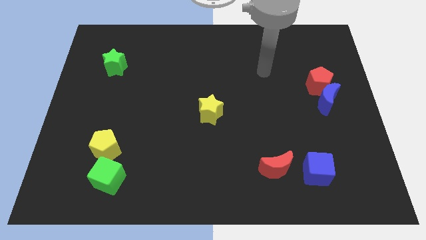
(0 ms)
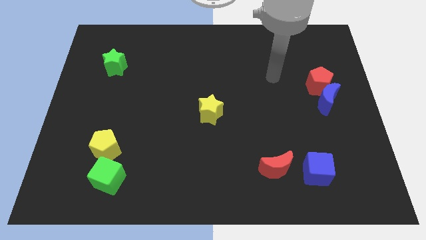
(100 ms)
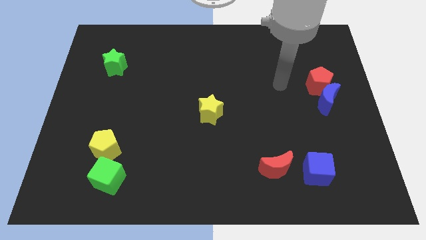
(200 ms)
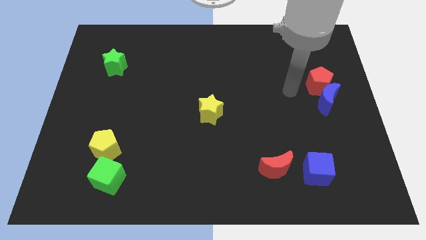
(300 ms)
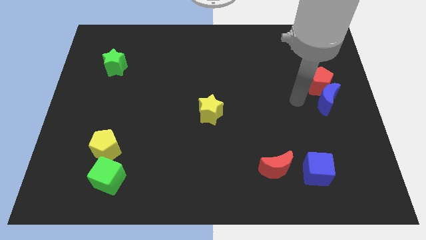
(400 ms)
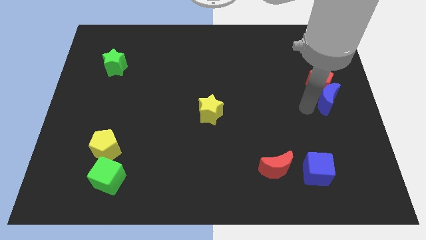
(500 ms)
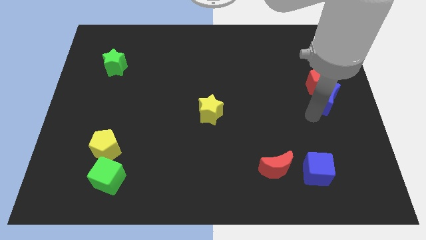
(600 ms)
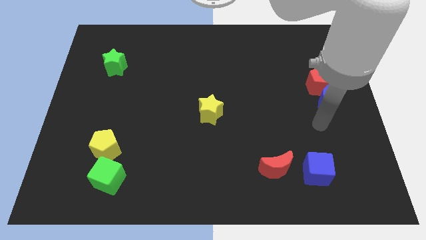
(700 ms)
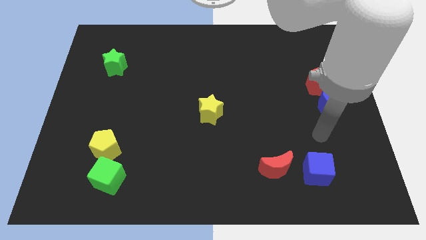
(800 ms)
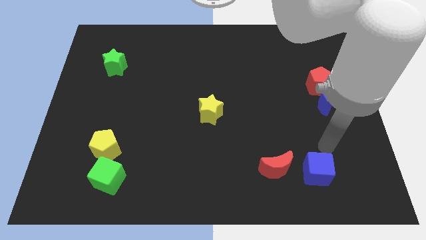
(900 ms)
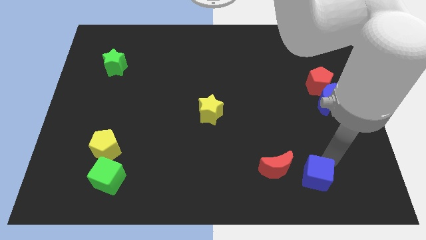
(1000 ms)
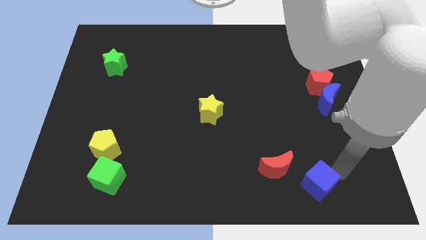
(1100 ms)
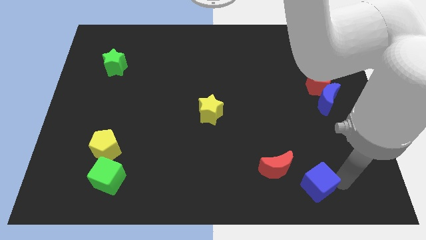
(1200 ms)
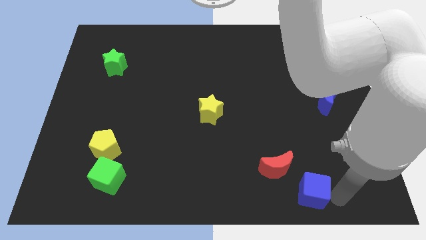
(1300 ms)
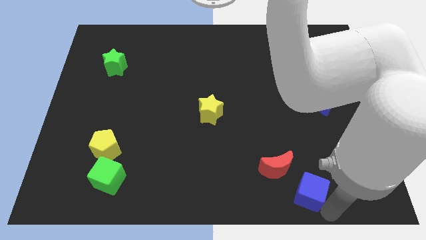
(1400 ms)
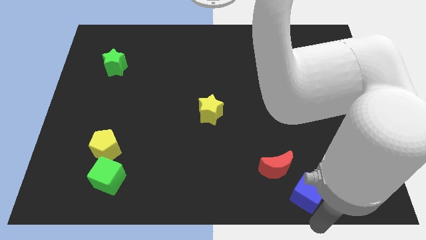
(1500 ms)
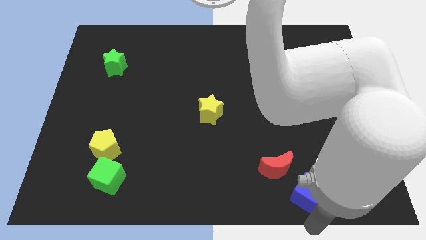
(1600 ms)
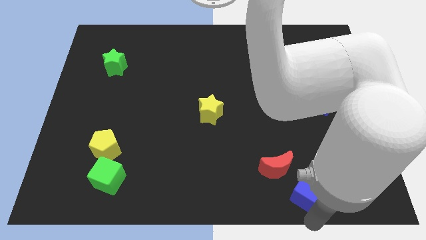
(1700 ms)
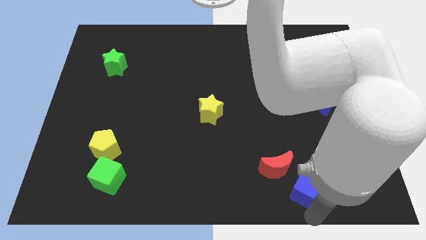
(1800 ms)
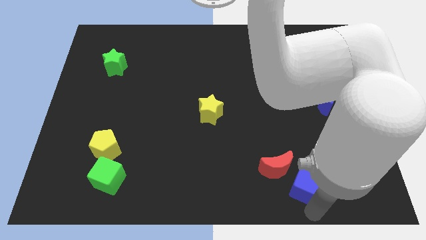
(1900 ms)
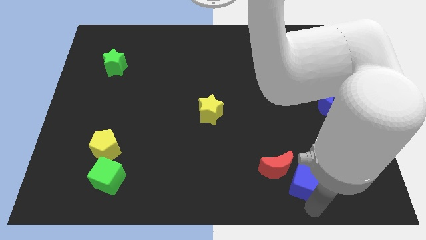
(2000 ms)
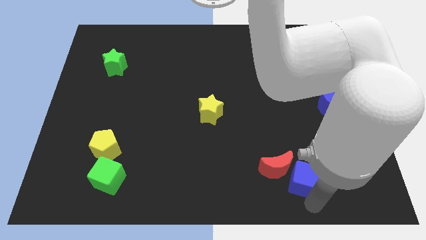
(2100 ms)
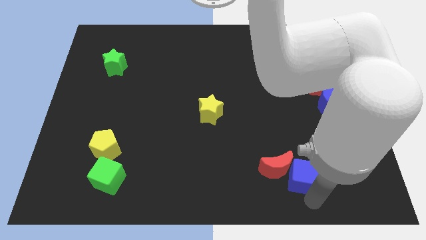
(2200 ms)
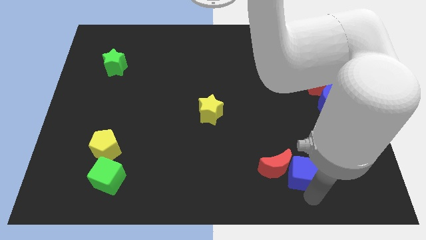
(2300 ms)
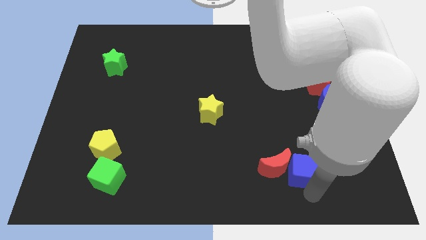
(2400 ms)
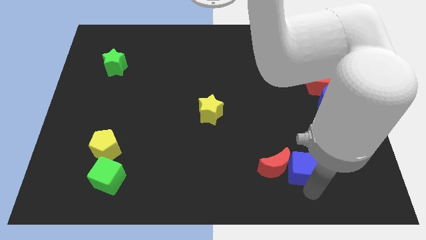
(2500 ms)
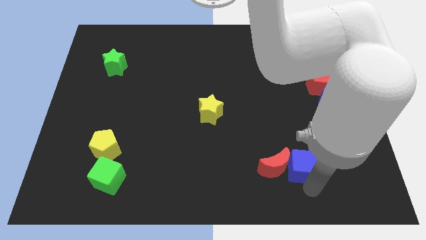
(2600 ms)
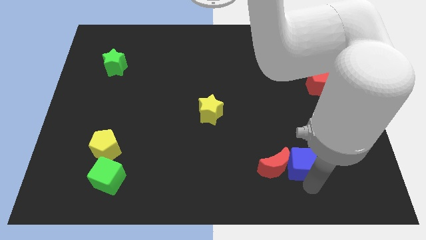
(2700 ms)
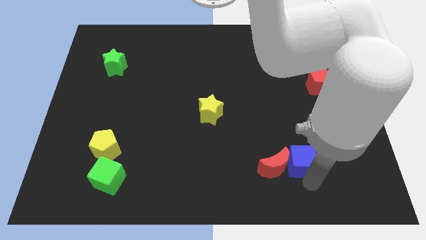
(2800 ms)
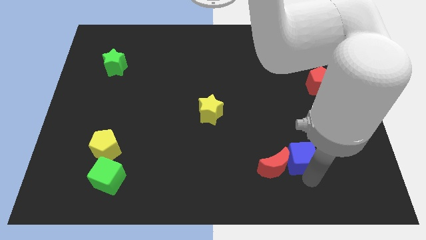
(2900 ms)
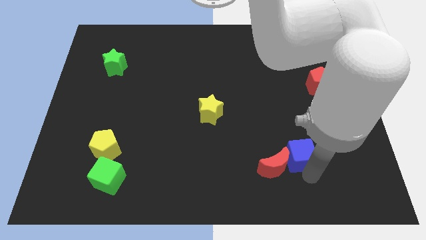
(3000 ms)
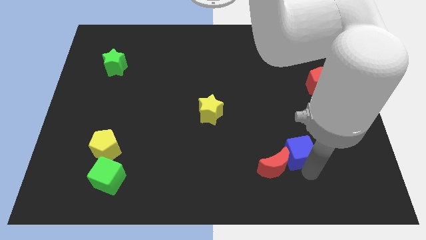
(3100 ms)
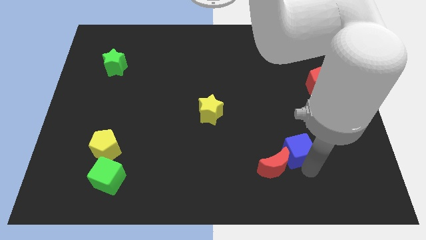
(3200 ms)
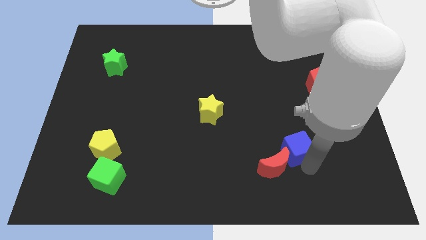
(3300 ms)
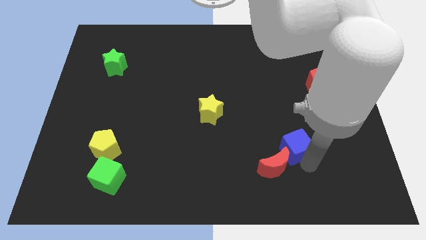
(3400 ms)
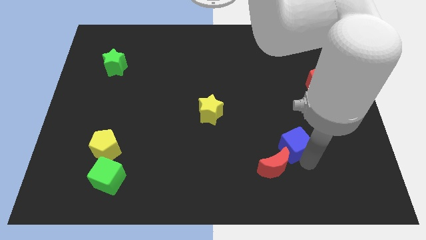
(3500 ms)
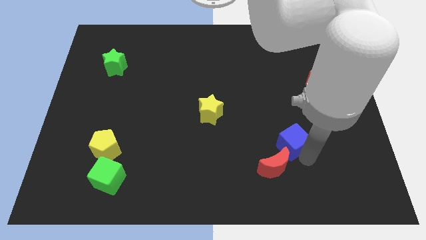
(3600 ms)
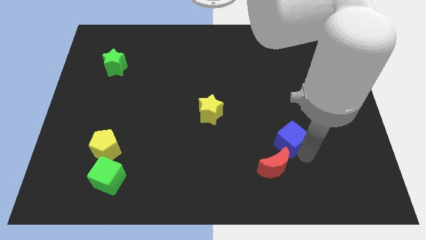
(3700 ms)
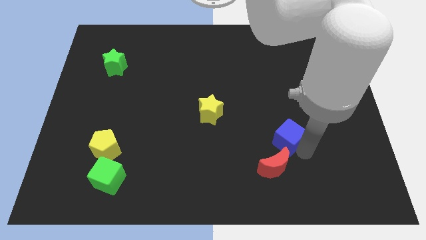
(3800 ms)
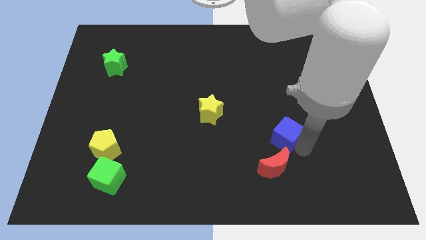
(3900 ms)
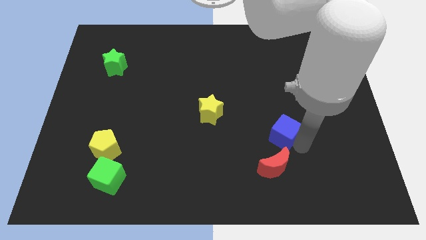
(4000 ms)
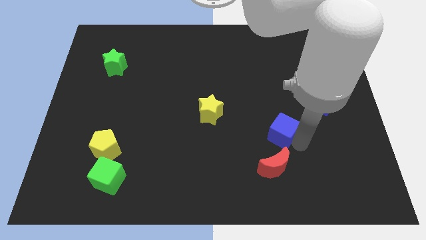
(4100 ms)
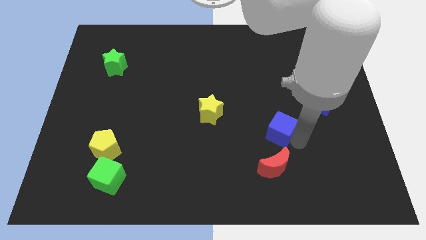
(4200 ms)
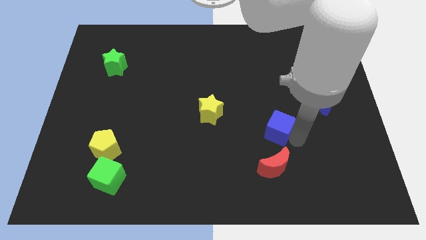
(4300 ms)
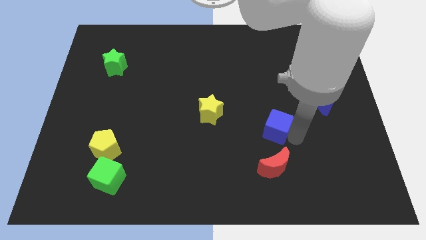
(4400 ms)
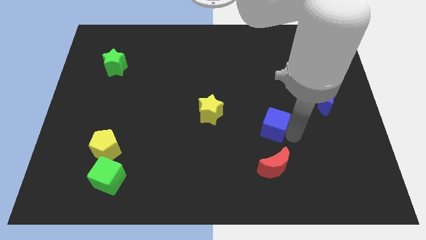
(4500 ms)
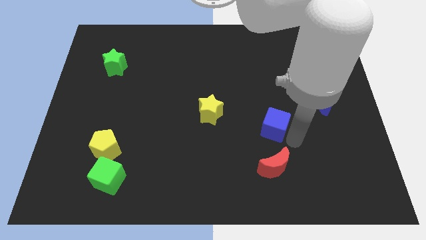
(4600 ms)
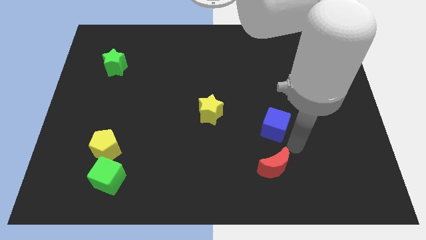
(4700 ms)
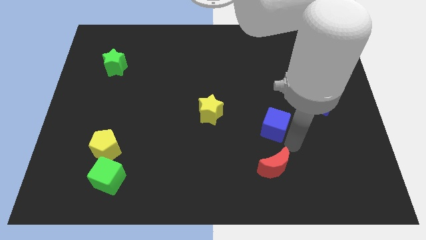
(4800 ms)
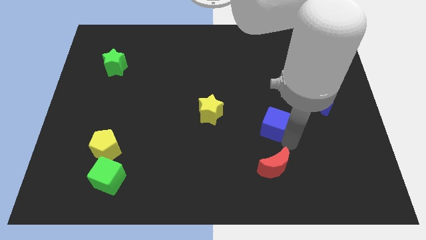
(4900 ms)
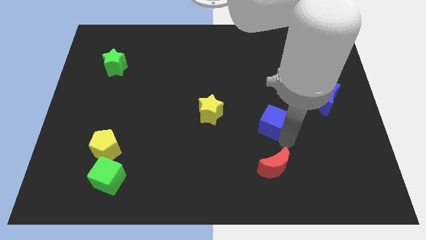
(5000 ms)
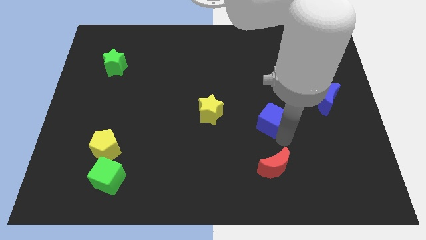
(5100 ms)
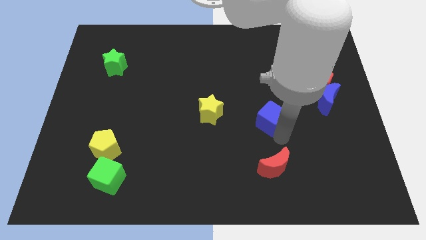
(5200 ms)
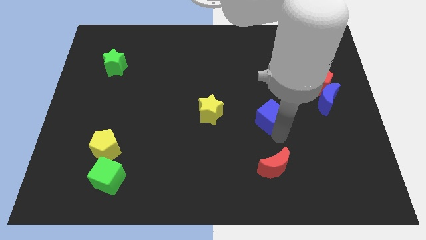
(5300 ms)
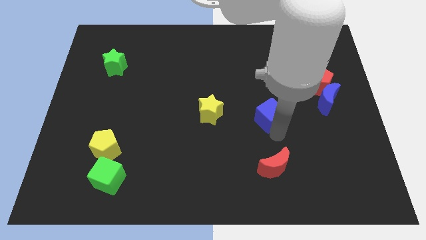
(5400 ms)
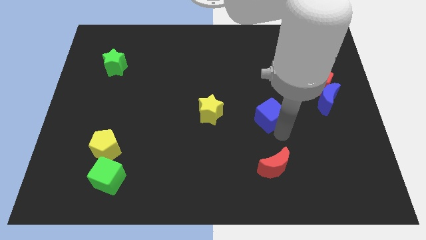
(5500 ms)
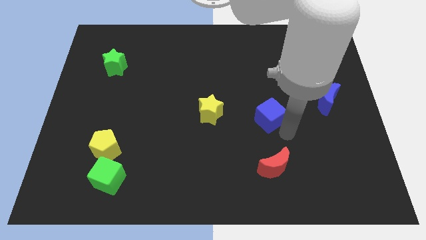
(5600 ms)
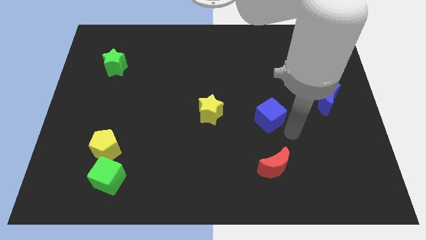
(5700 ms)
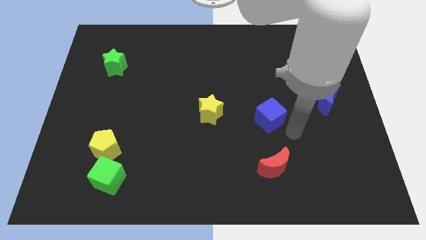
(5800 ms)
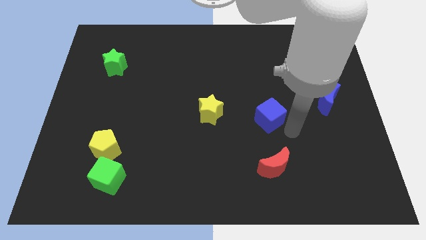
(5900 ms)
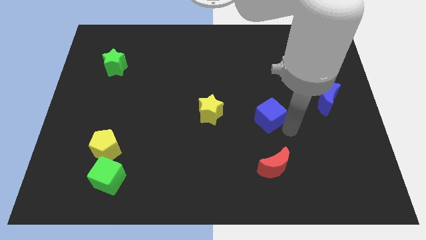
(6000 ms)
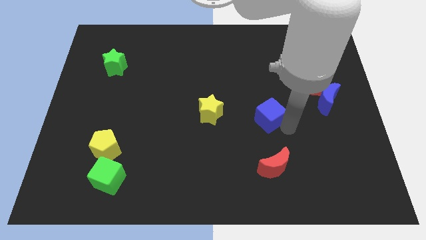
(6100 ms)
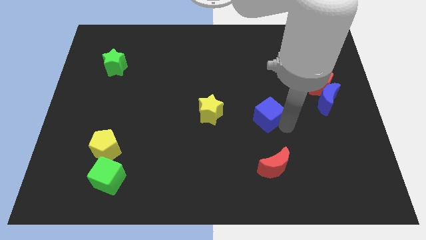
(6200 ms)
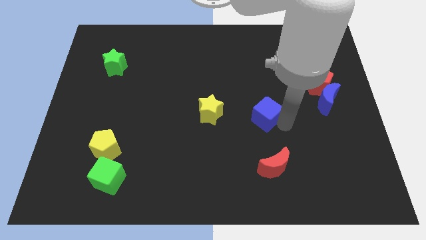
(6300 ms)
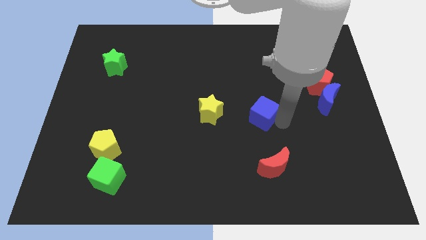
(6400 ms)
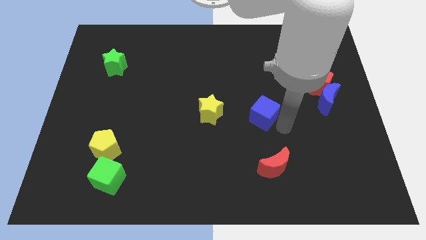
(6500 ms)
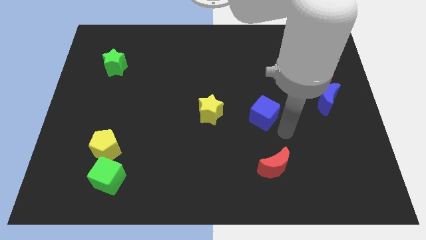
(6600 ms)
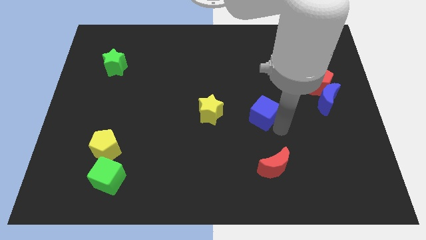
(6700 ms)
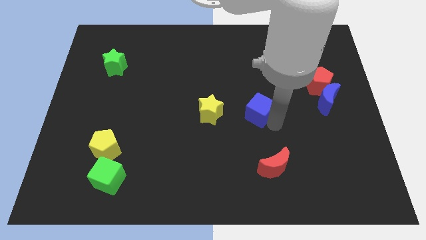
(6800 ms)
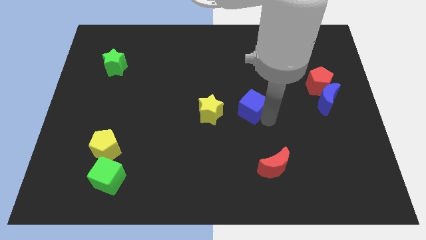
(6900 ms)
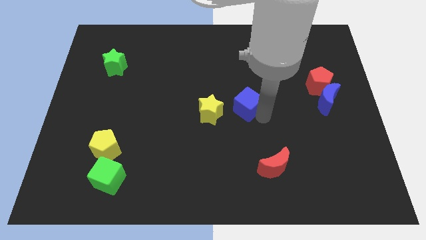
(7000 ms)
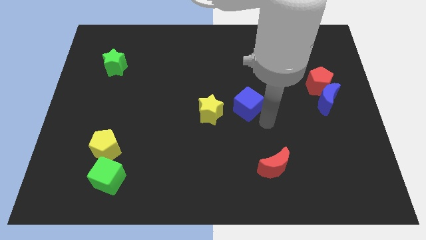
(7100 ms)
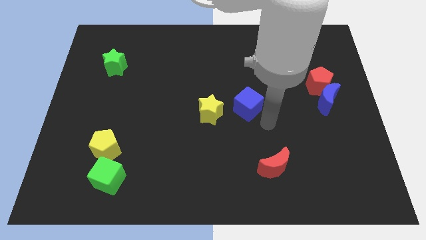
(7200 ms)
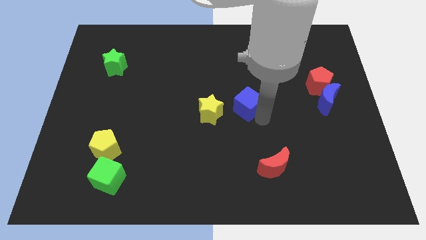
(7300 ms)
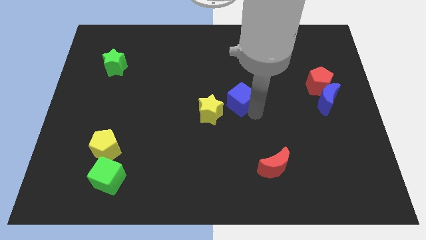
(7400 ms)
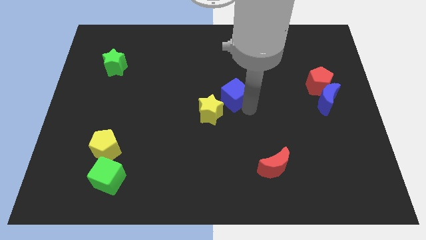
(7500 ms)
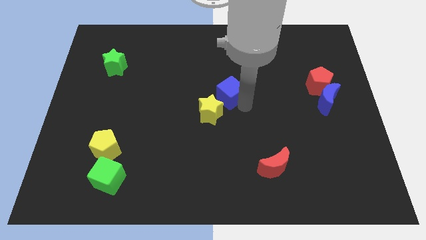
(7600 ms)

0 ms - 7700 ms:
push the blue cube to the top side of the yellow star
